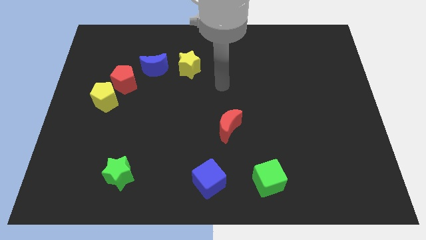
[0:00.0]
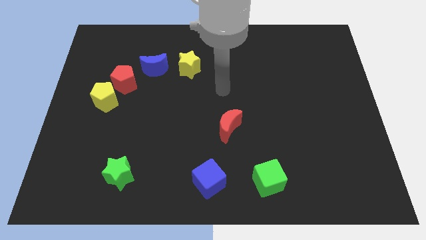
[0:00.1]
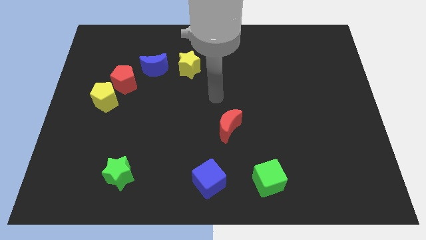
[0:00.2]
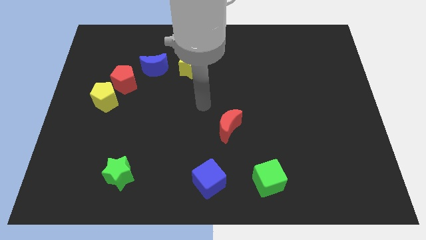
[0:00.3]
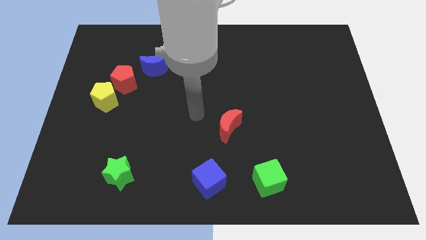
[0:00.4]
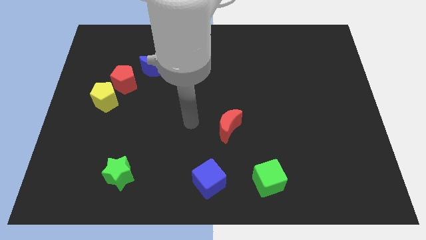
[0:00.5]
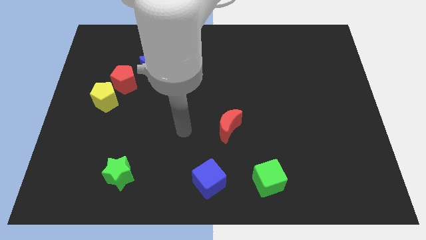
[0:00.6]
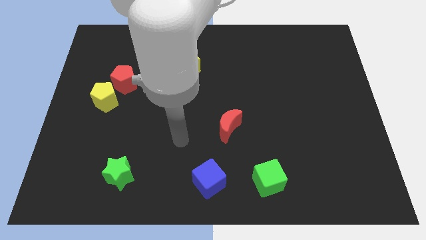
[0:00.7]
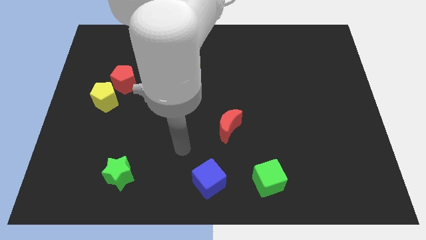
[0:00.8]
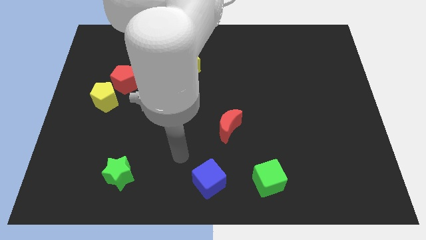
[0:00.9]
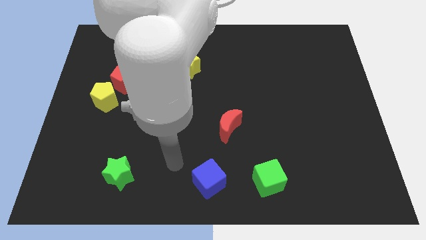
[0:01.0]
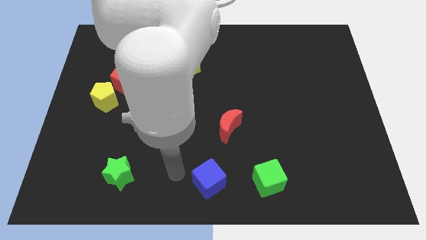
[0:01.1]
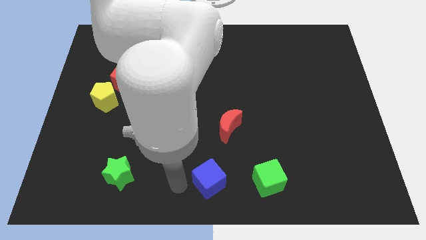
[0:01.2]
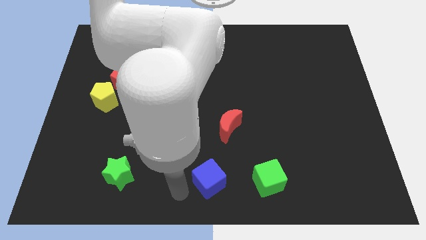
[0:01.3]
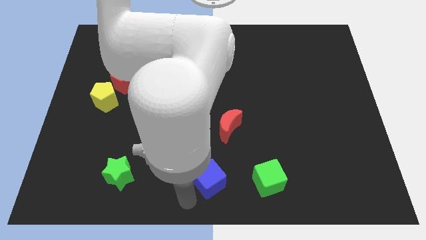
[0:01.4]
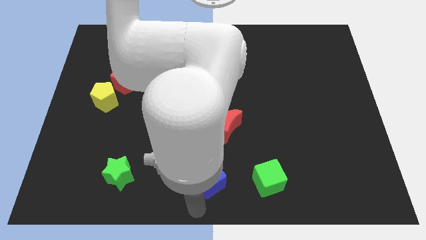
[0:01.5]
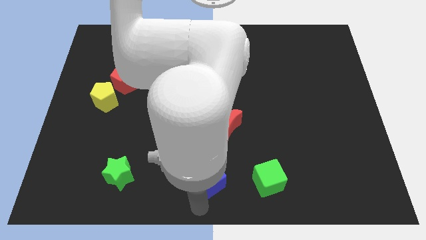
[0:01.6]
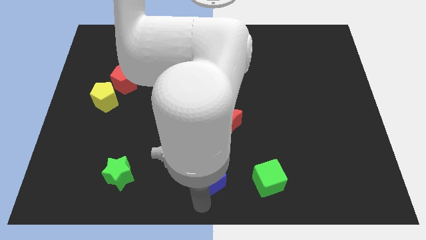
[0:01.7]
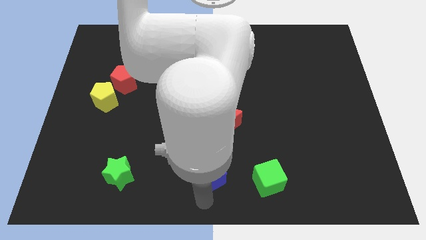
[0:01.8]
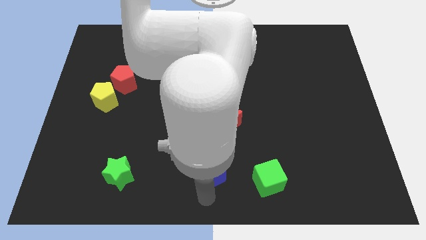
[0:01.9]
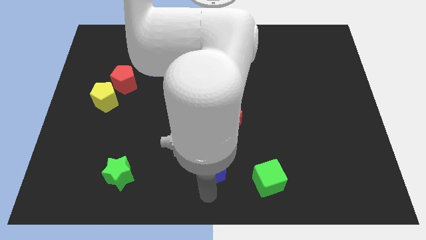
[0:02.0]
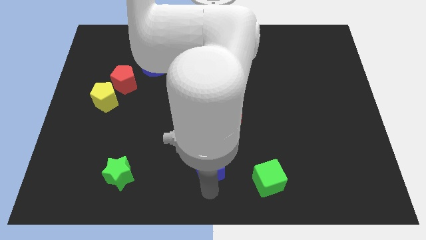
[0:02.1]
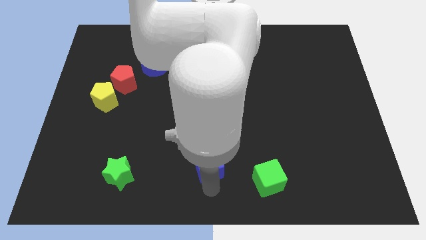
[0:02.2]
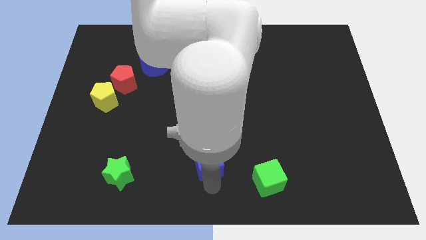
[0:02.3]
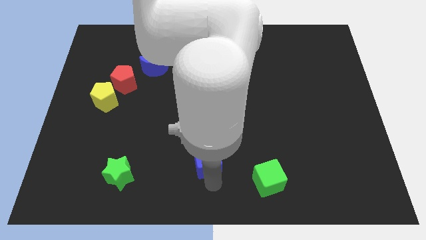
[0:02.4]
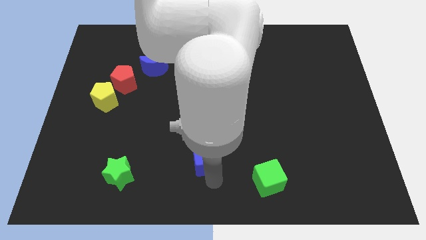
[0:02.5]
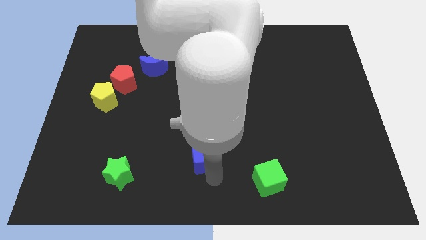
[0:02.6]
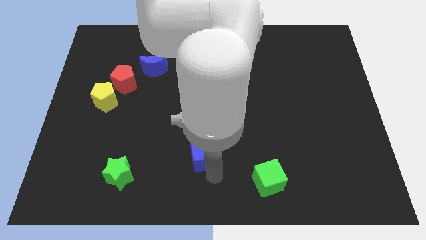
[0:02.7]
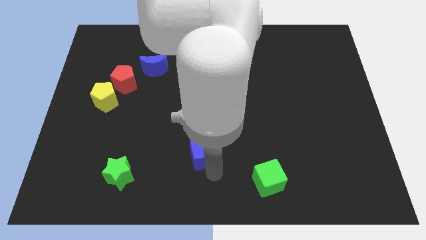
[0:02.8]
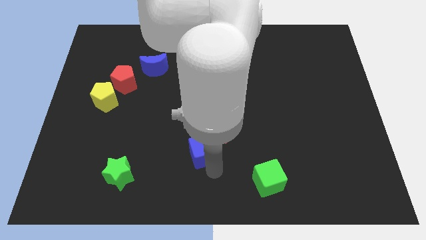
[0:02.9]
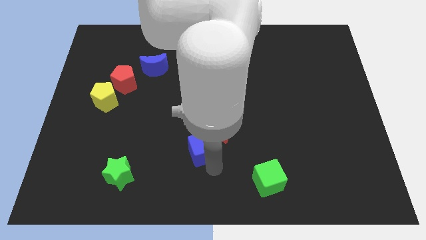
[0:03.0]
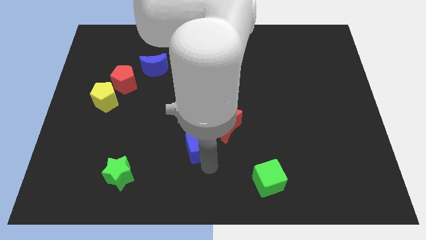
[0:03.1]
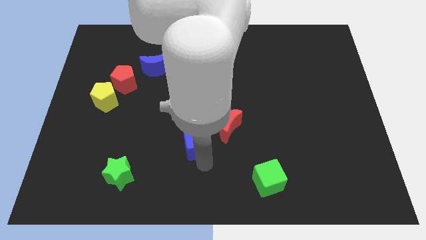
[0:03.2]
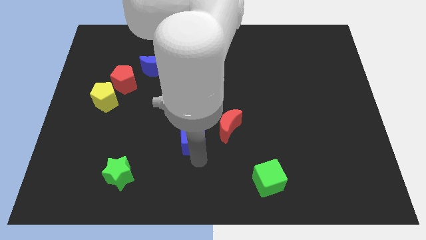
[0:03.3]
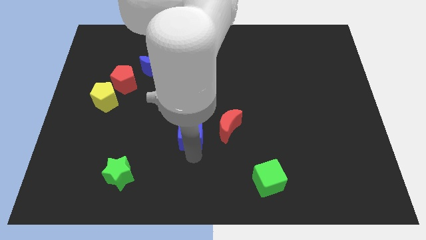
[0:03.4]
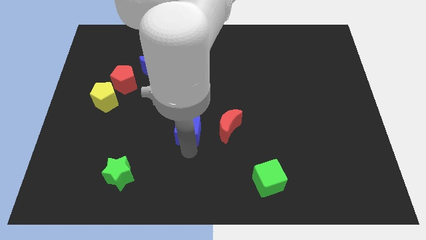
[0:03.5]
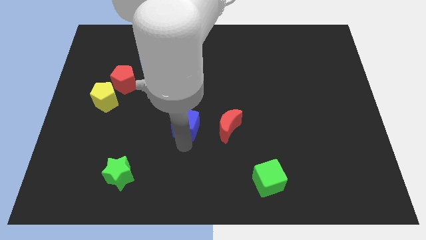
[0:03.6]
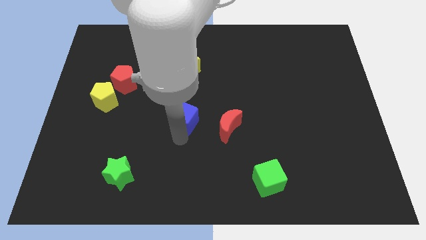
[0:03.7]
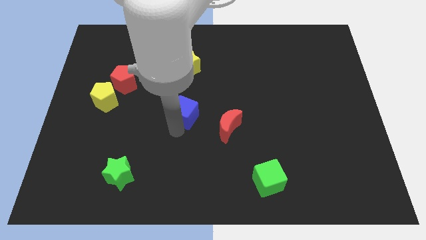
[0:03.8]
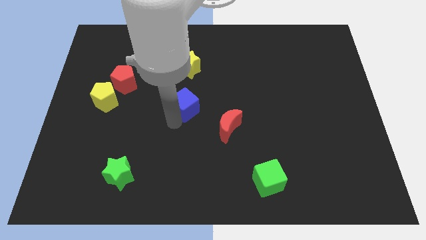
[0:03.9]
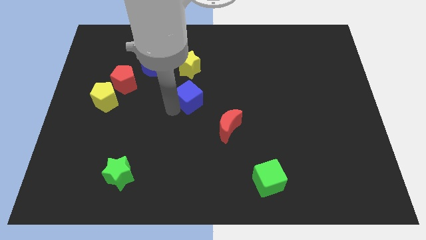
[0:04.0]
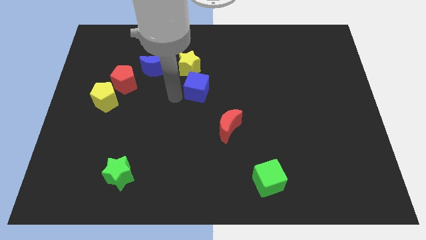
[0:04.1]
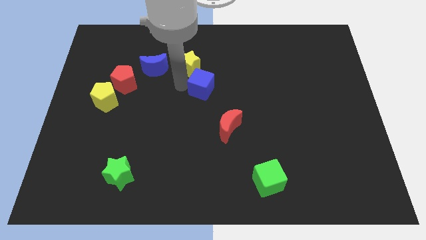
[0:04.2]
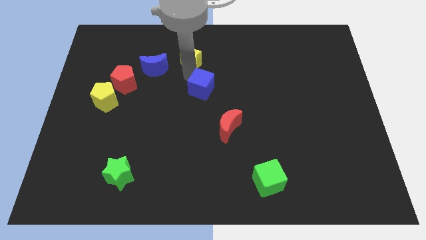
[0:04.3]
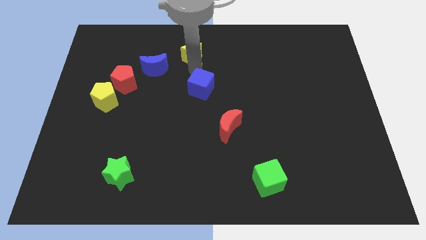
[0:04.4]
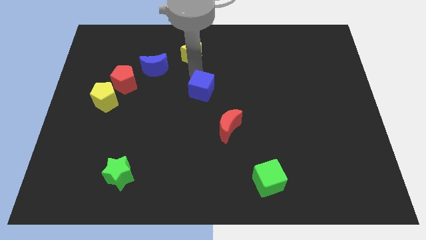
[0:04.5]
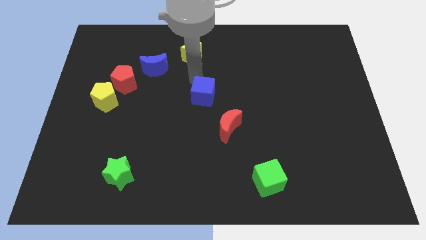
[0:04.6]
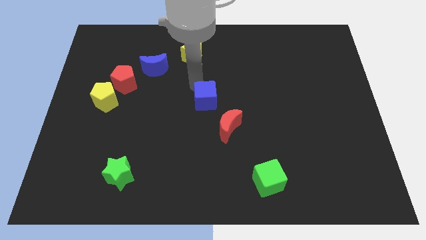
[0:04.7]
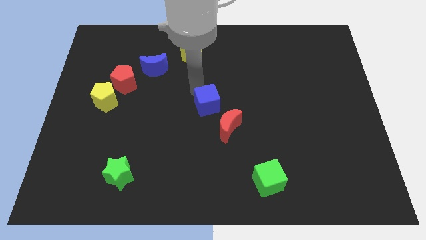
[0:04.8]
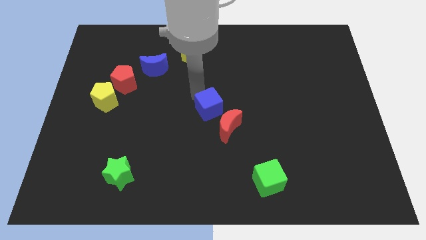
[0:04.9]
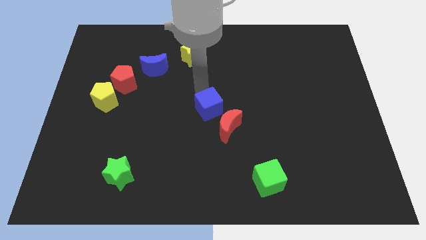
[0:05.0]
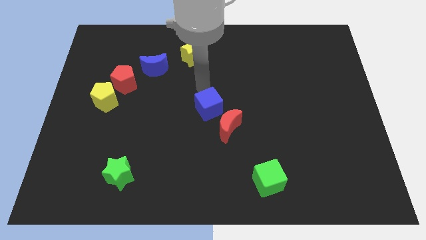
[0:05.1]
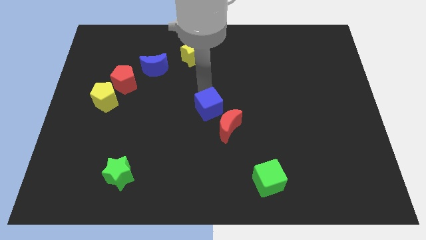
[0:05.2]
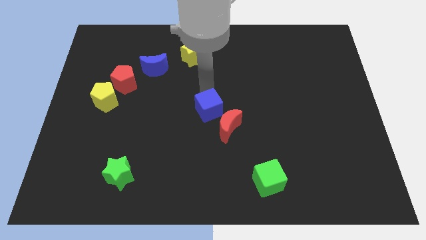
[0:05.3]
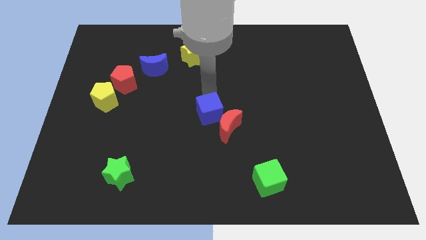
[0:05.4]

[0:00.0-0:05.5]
slide the blue cube to the red moon
